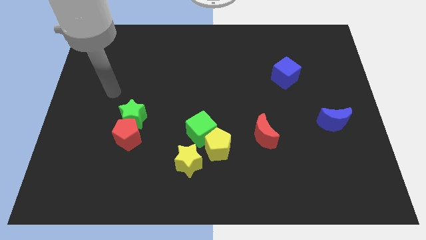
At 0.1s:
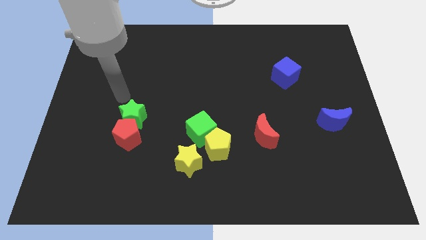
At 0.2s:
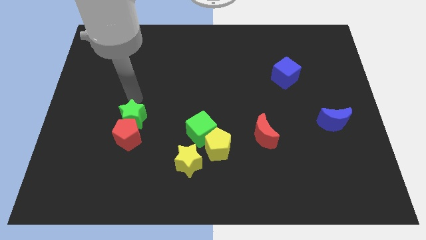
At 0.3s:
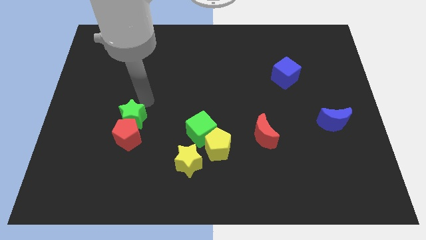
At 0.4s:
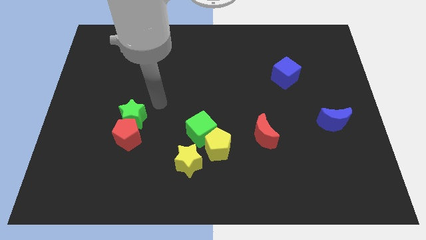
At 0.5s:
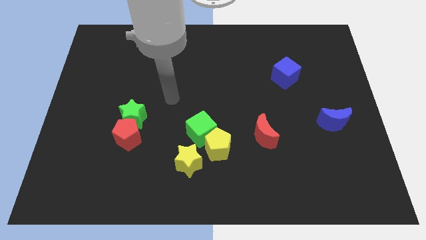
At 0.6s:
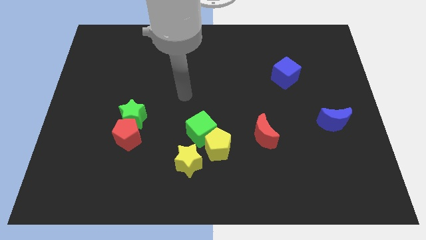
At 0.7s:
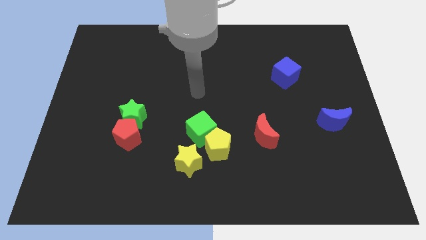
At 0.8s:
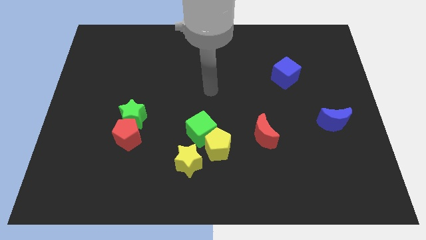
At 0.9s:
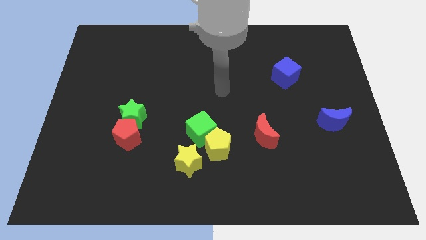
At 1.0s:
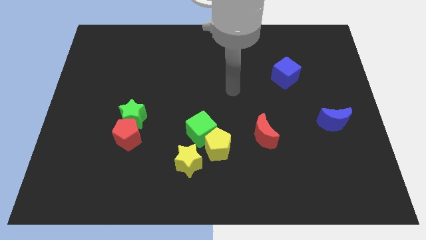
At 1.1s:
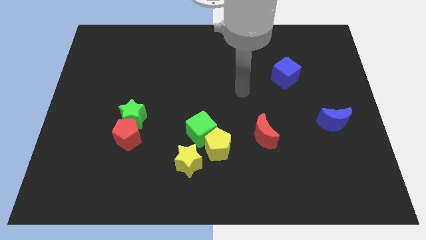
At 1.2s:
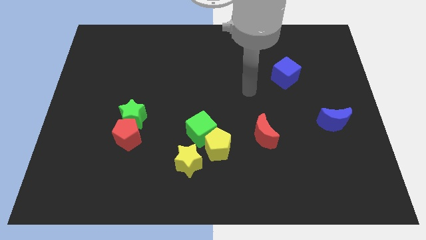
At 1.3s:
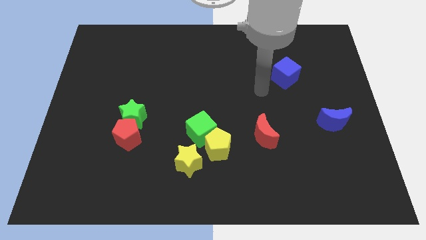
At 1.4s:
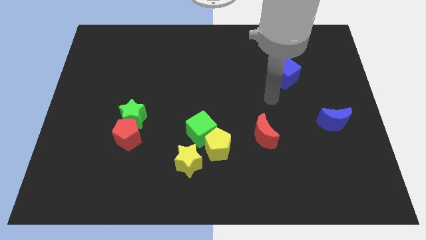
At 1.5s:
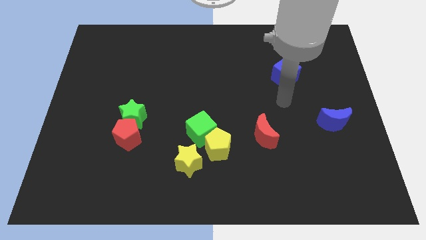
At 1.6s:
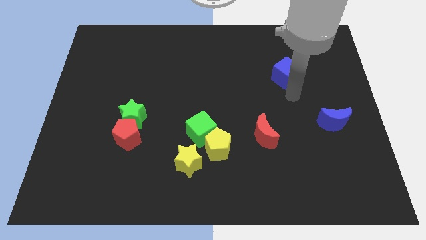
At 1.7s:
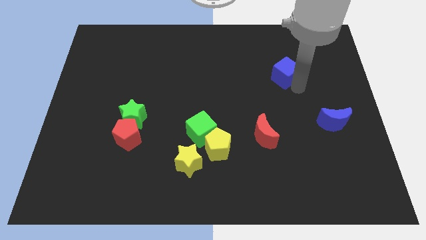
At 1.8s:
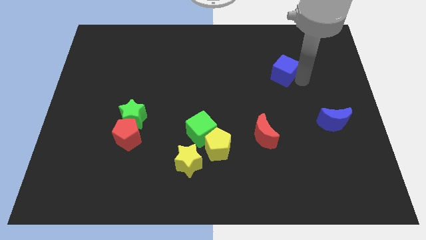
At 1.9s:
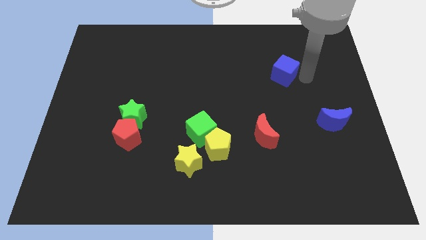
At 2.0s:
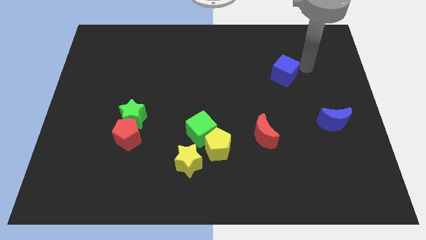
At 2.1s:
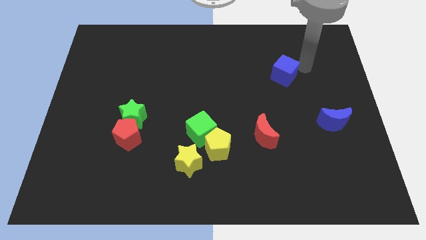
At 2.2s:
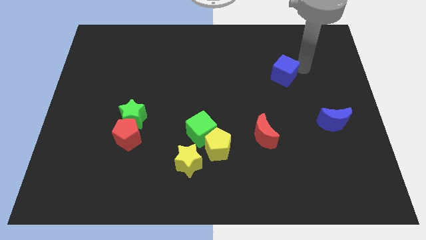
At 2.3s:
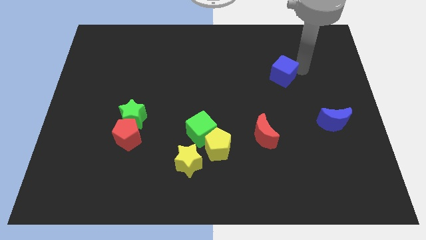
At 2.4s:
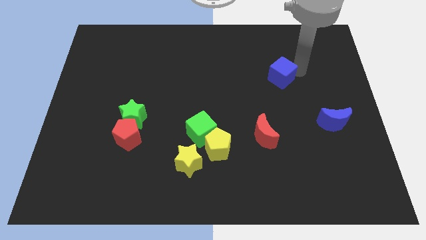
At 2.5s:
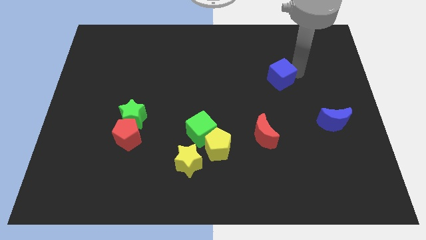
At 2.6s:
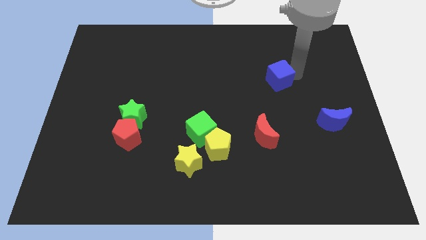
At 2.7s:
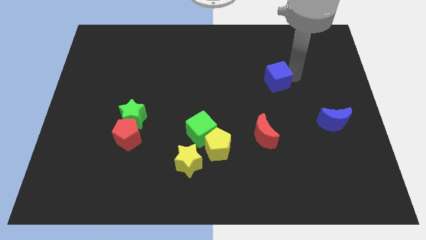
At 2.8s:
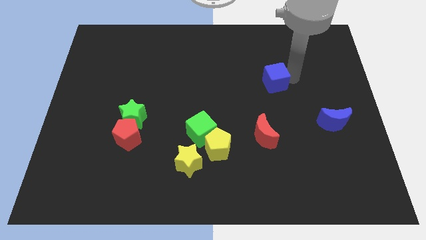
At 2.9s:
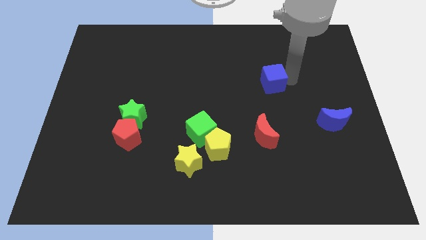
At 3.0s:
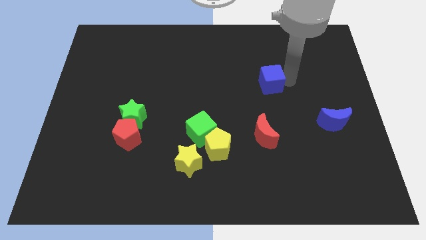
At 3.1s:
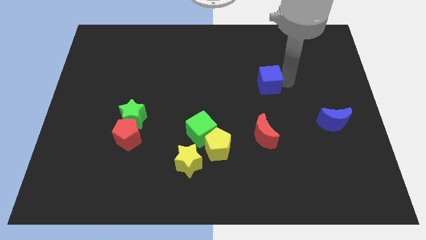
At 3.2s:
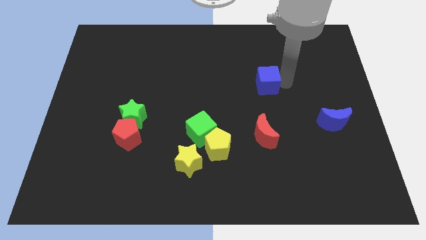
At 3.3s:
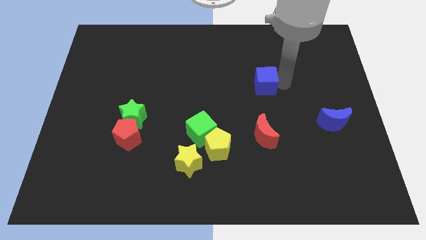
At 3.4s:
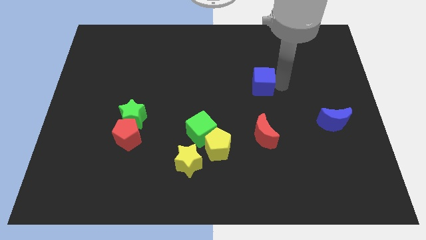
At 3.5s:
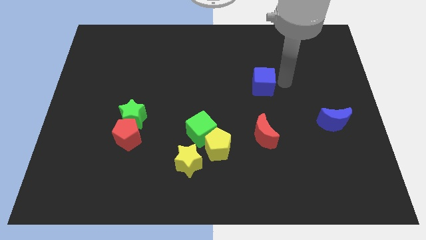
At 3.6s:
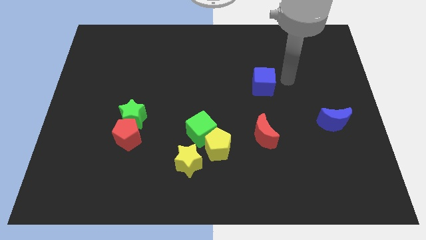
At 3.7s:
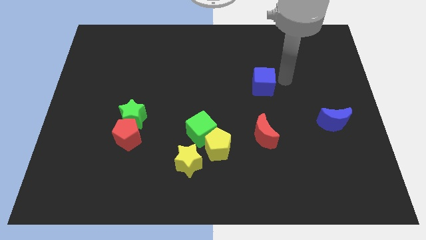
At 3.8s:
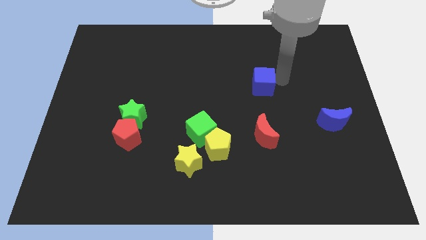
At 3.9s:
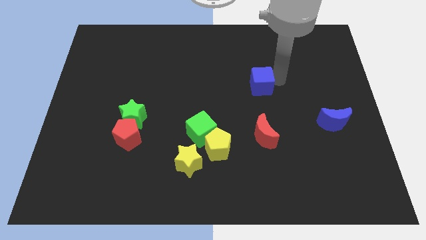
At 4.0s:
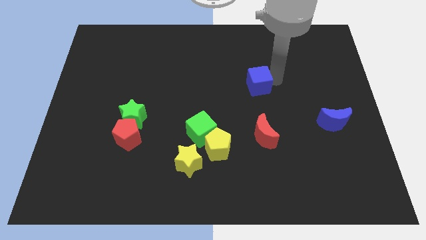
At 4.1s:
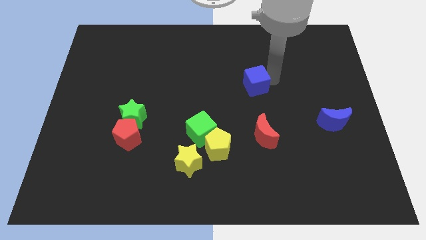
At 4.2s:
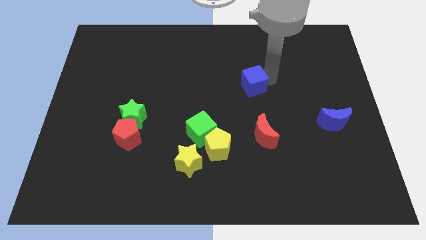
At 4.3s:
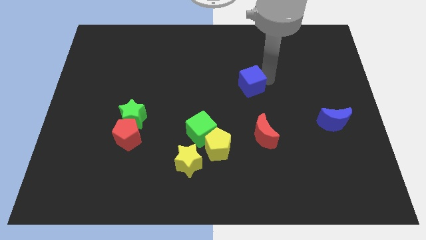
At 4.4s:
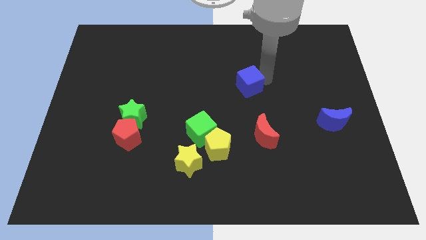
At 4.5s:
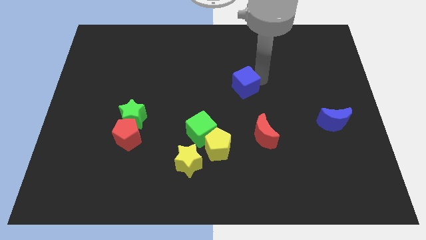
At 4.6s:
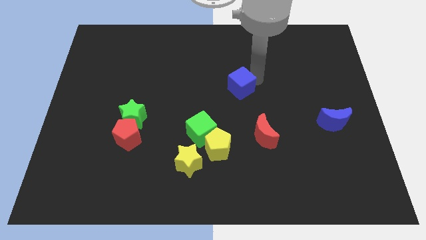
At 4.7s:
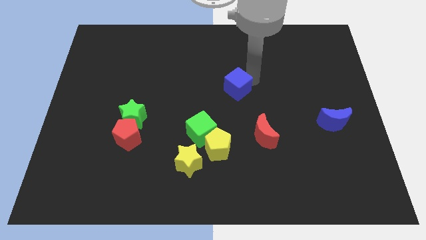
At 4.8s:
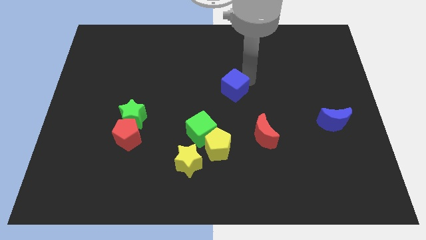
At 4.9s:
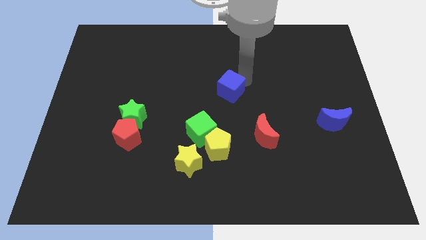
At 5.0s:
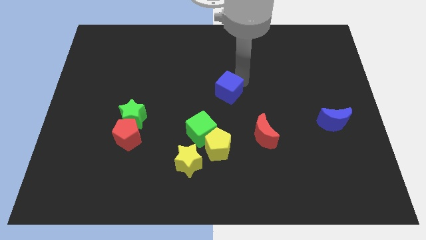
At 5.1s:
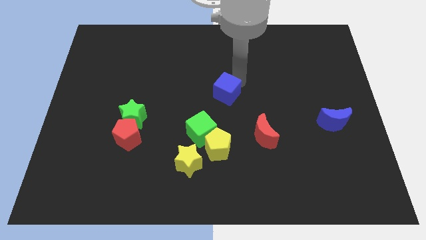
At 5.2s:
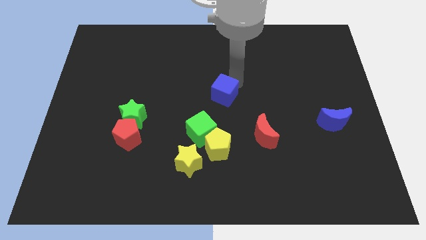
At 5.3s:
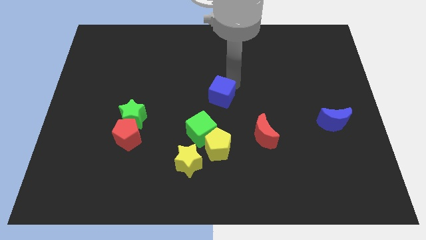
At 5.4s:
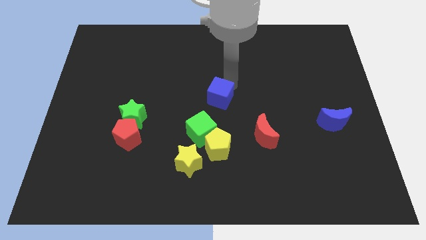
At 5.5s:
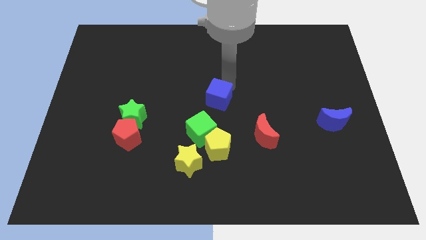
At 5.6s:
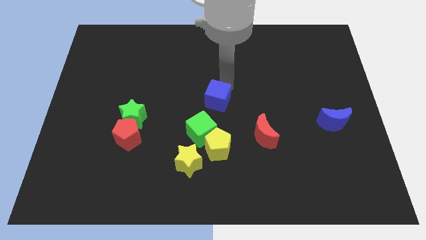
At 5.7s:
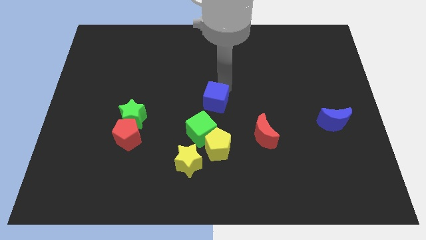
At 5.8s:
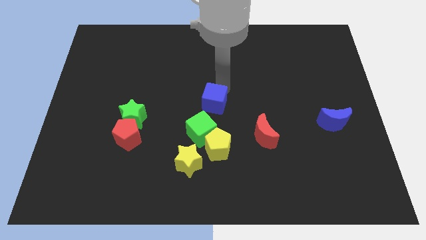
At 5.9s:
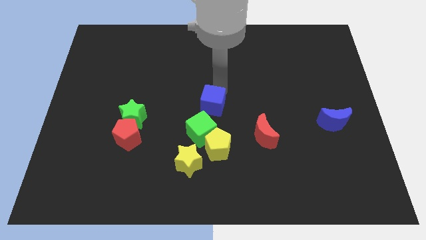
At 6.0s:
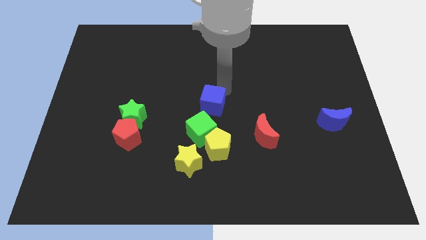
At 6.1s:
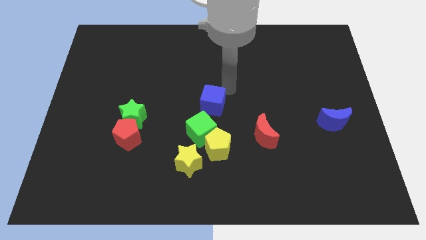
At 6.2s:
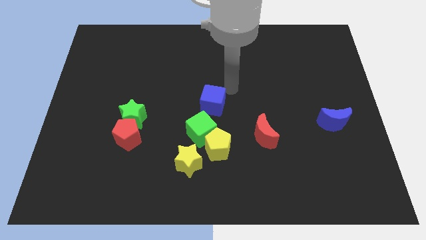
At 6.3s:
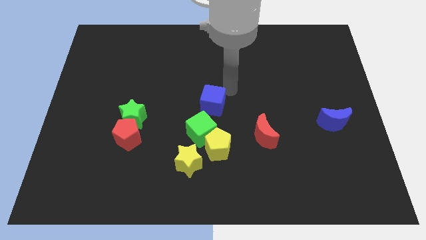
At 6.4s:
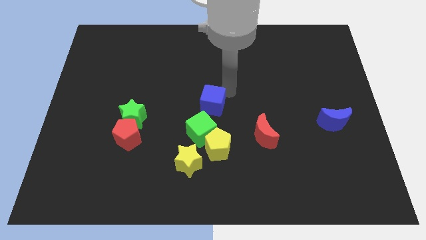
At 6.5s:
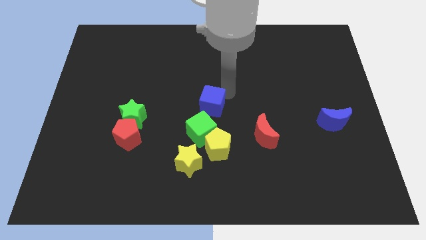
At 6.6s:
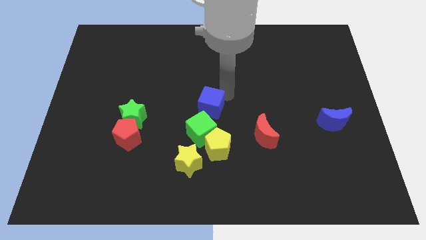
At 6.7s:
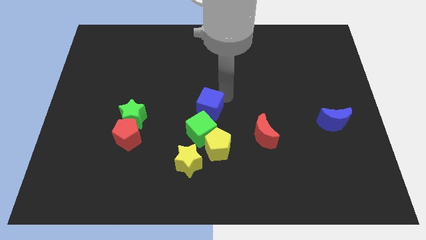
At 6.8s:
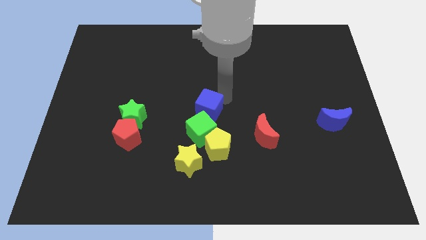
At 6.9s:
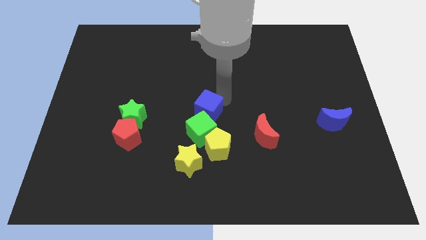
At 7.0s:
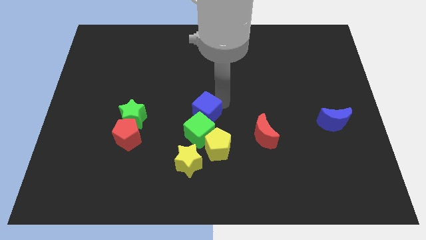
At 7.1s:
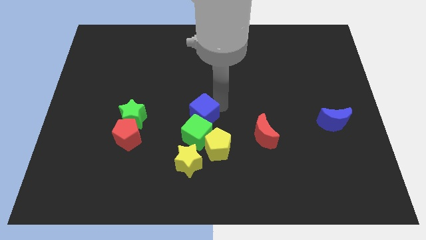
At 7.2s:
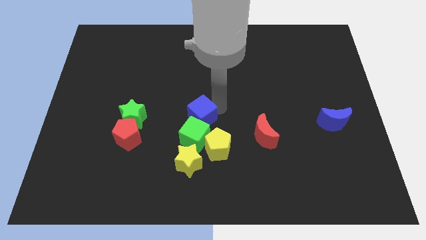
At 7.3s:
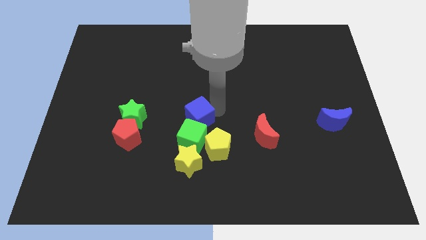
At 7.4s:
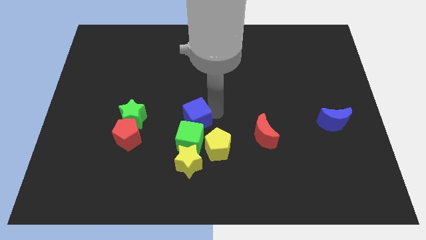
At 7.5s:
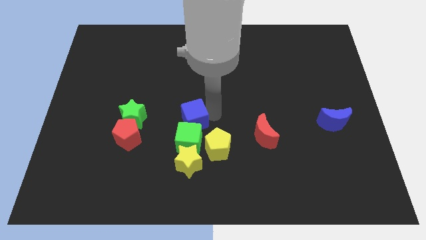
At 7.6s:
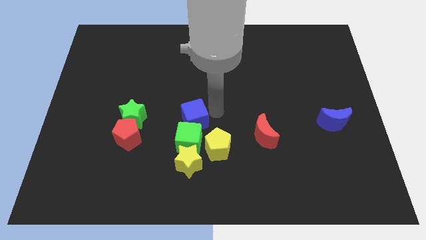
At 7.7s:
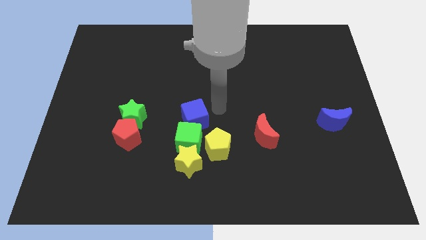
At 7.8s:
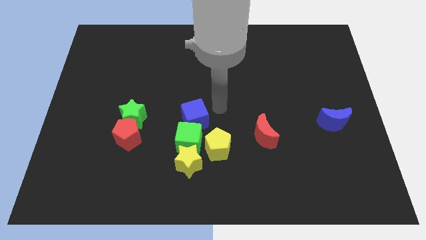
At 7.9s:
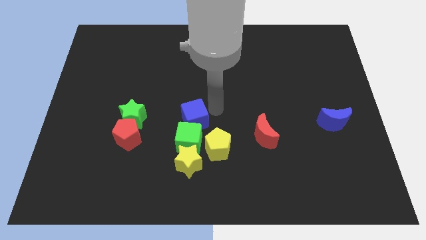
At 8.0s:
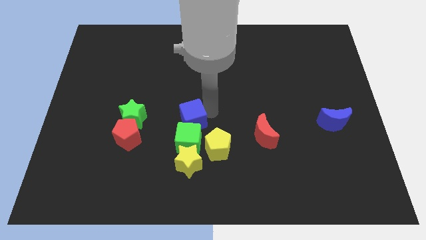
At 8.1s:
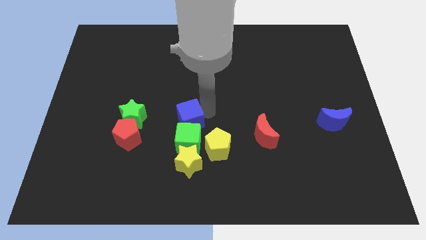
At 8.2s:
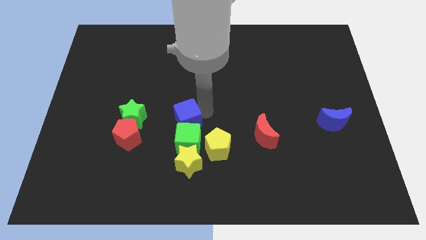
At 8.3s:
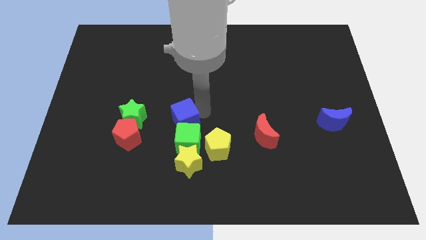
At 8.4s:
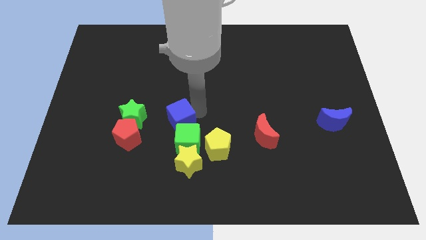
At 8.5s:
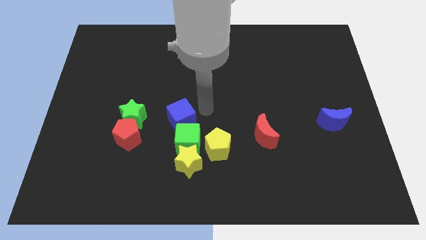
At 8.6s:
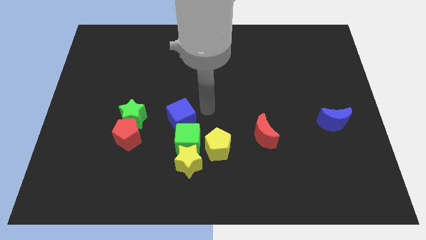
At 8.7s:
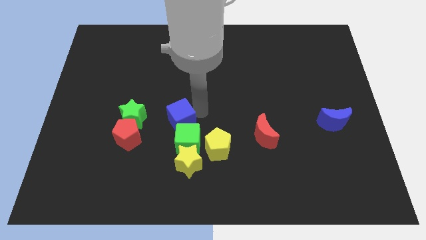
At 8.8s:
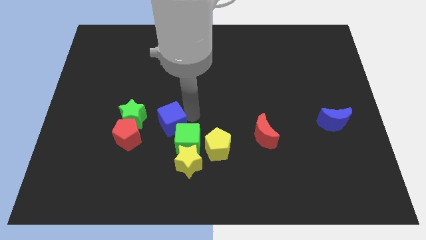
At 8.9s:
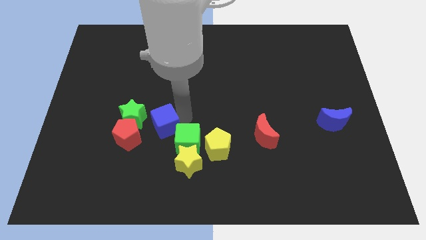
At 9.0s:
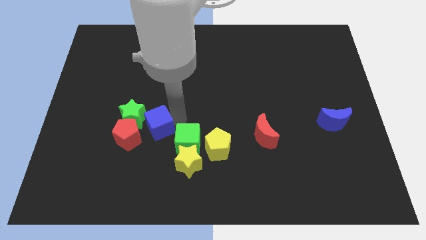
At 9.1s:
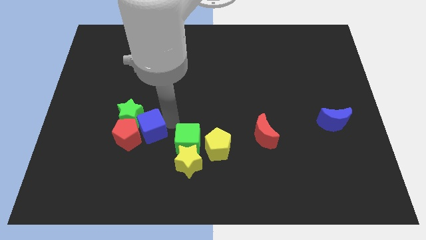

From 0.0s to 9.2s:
move the blue cube to the red pentagon
